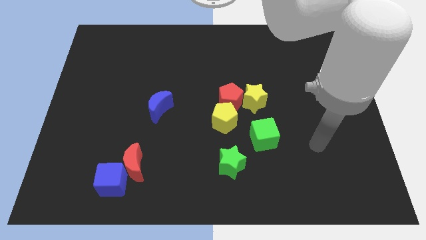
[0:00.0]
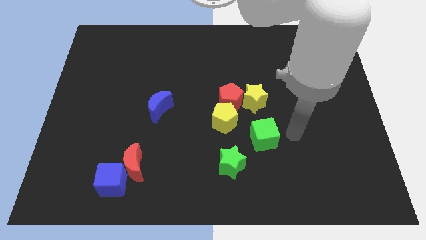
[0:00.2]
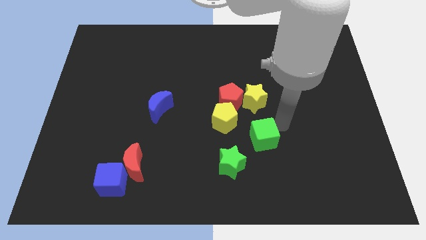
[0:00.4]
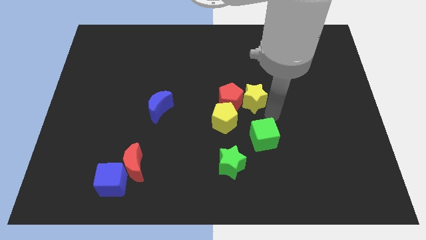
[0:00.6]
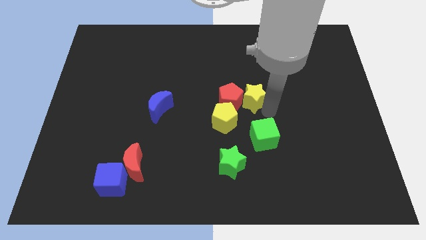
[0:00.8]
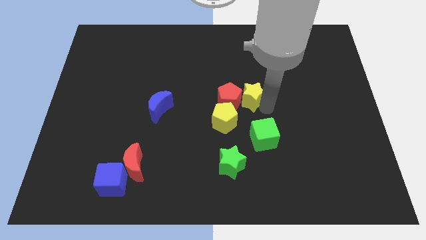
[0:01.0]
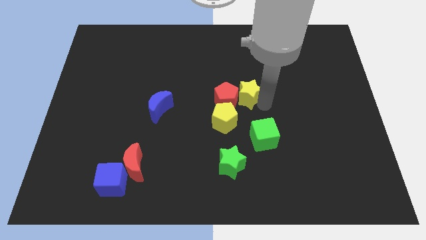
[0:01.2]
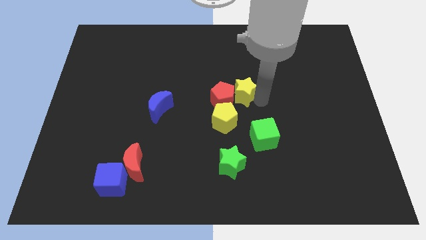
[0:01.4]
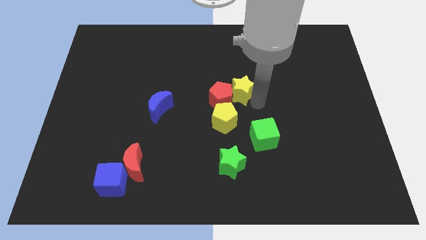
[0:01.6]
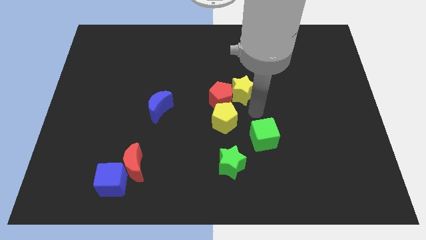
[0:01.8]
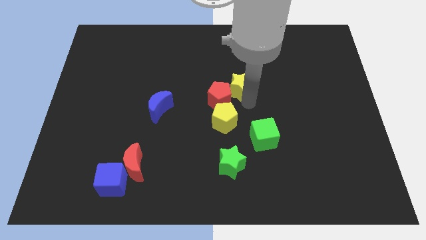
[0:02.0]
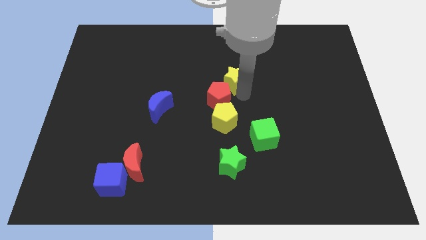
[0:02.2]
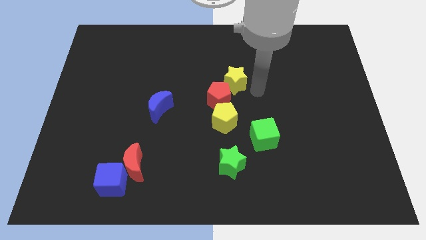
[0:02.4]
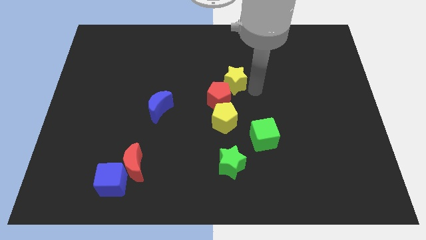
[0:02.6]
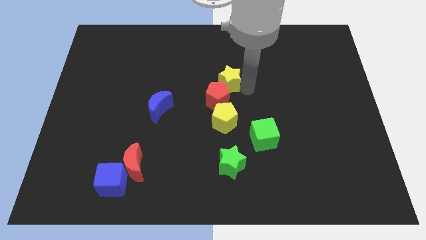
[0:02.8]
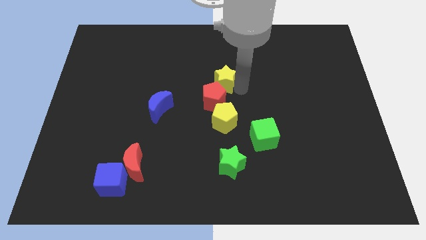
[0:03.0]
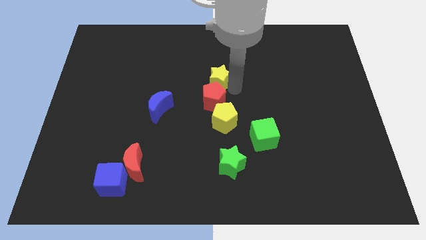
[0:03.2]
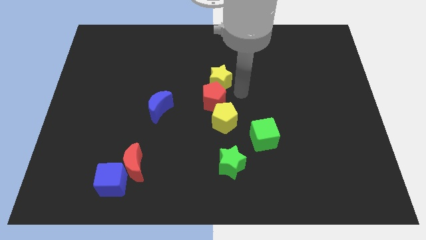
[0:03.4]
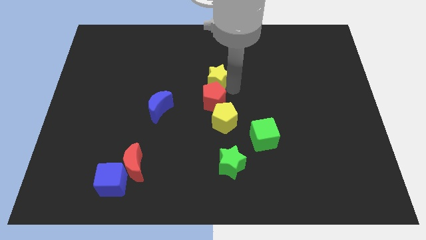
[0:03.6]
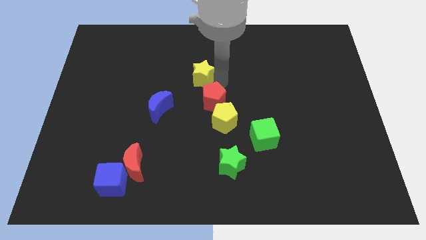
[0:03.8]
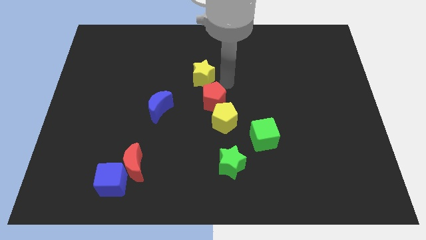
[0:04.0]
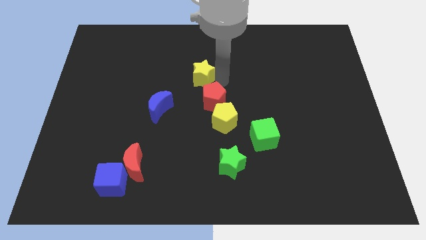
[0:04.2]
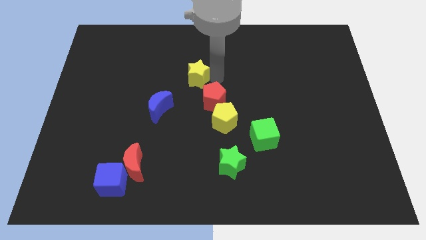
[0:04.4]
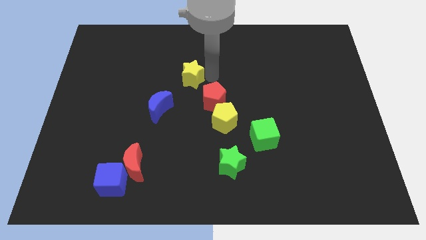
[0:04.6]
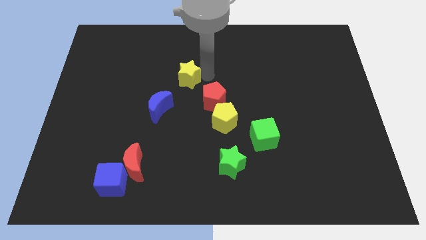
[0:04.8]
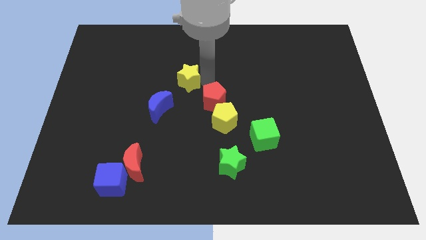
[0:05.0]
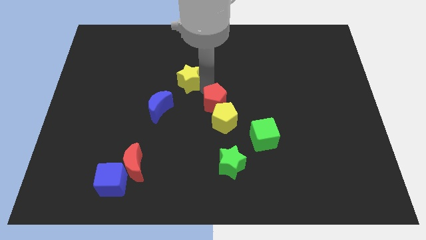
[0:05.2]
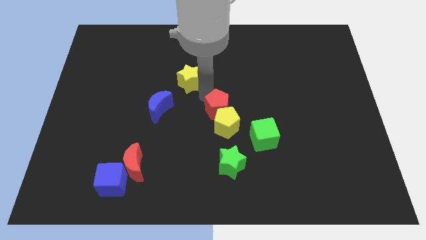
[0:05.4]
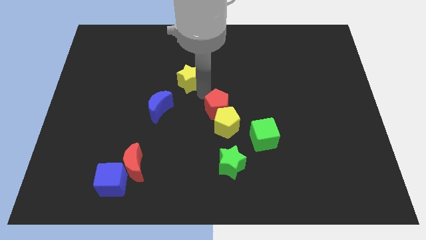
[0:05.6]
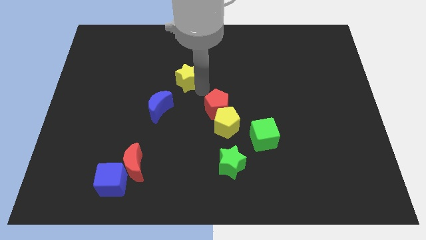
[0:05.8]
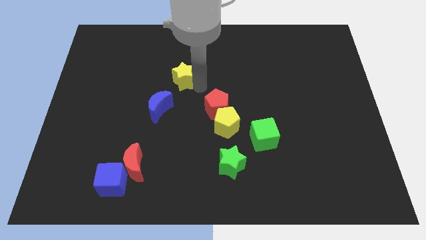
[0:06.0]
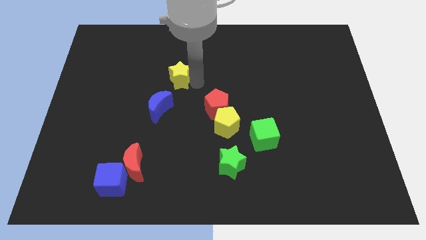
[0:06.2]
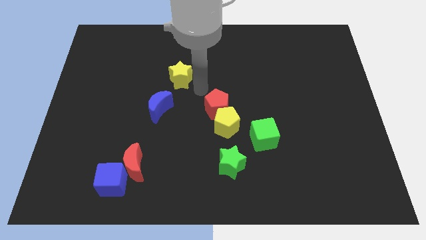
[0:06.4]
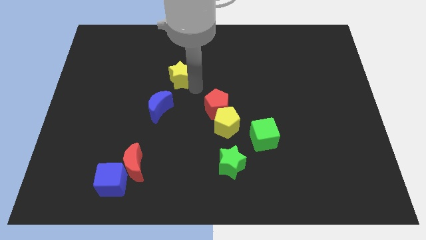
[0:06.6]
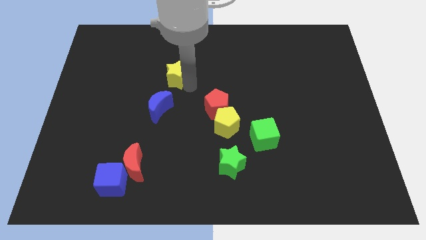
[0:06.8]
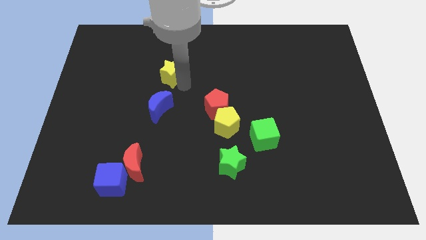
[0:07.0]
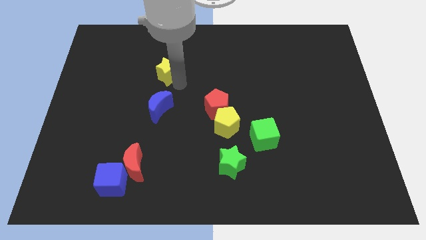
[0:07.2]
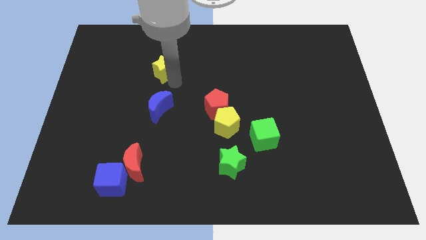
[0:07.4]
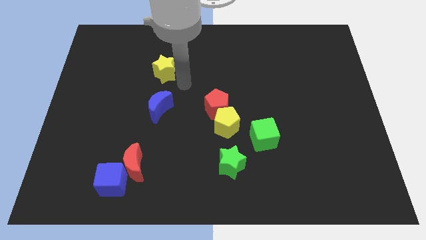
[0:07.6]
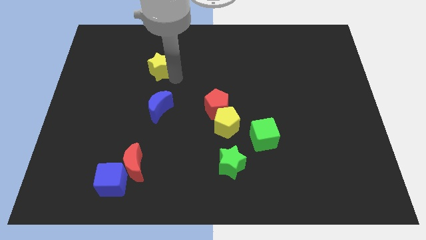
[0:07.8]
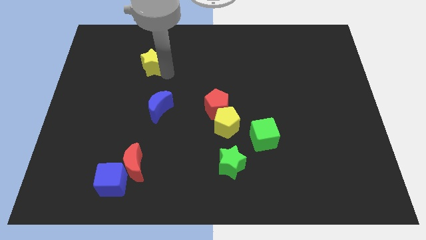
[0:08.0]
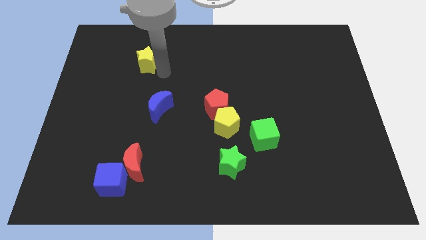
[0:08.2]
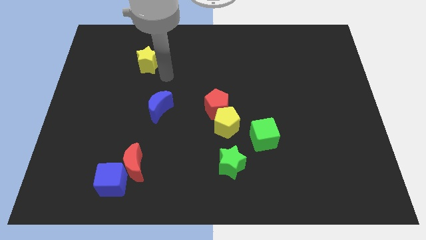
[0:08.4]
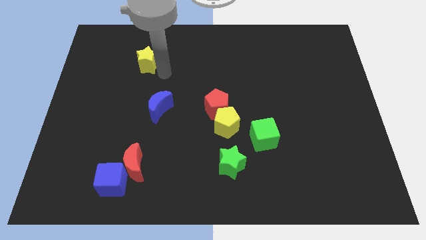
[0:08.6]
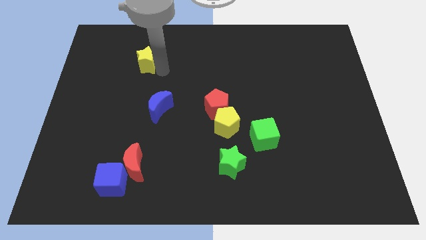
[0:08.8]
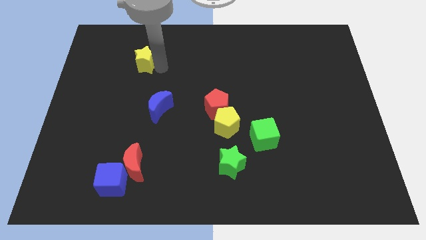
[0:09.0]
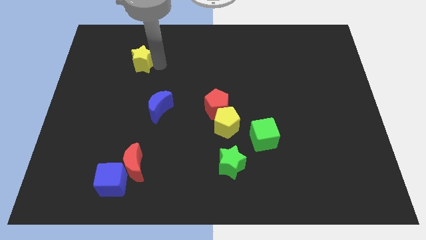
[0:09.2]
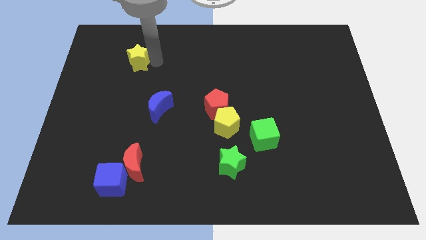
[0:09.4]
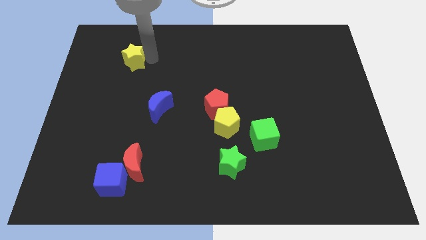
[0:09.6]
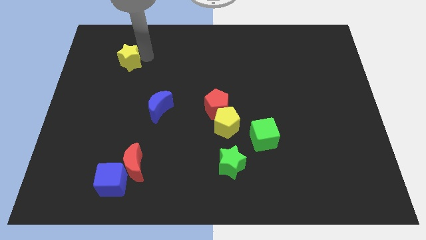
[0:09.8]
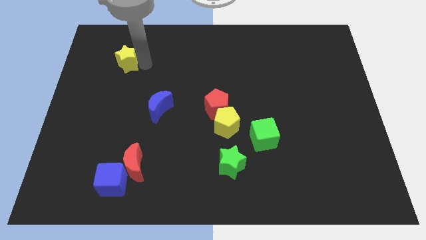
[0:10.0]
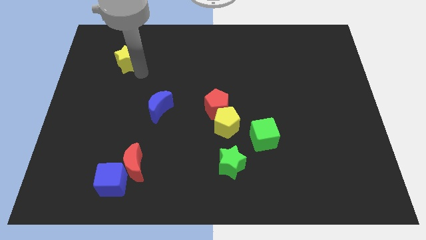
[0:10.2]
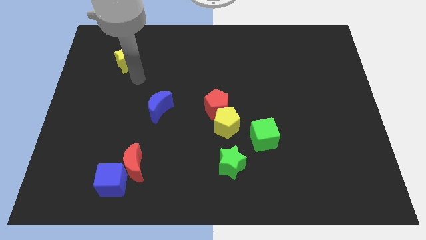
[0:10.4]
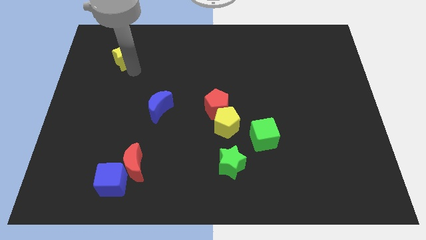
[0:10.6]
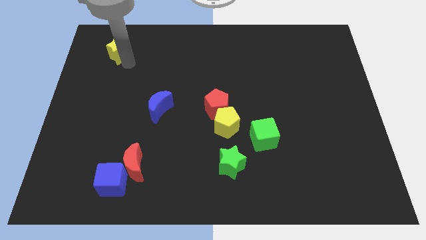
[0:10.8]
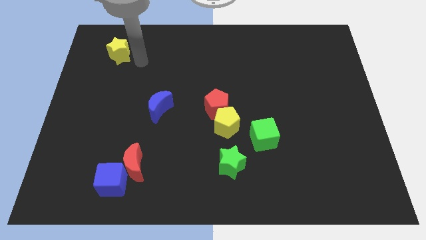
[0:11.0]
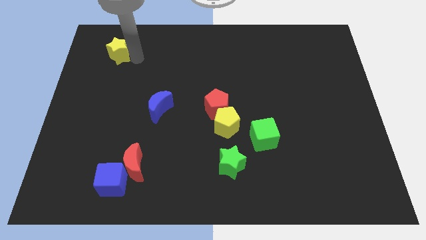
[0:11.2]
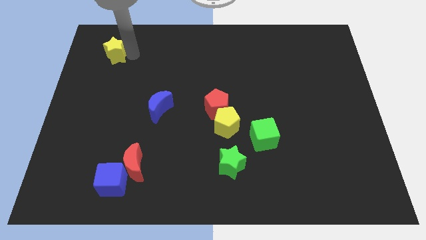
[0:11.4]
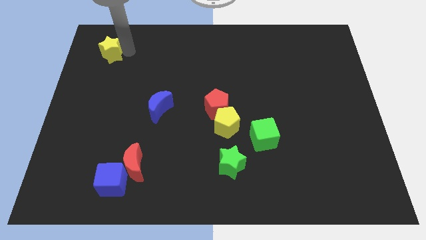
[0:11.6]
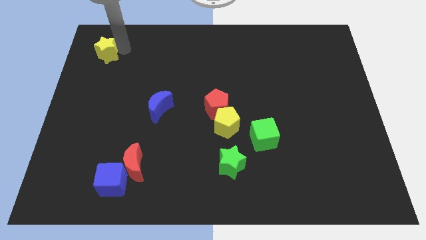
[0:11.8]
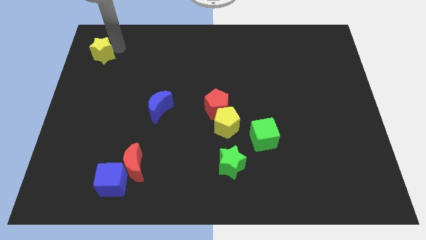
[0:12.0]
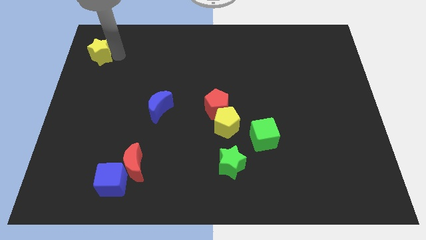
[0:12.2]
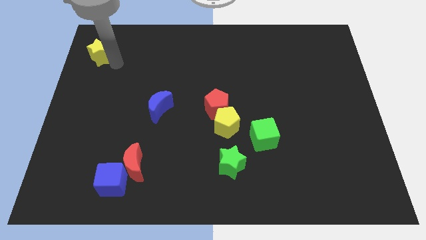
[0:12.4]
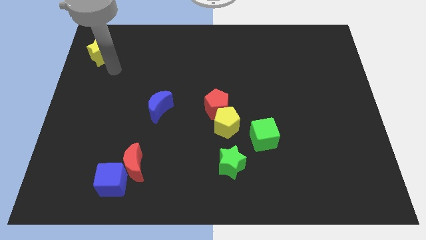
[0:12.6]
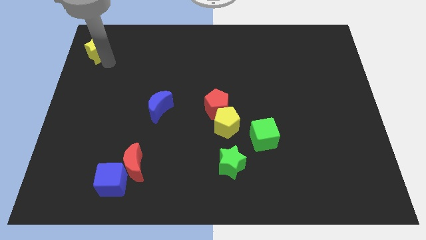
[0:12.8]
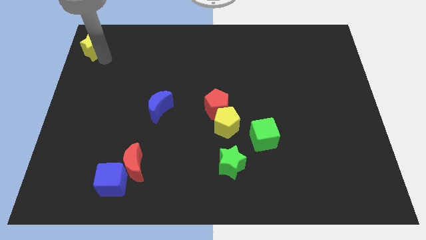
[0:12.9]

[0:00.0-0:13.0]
slide the yellow star to the top left
